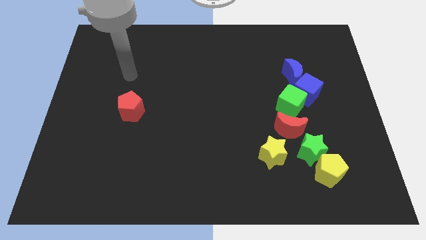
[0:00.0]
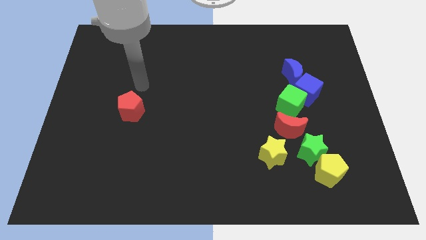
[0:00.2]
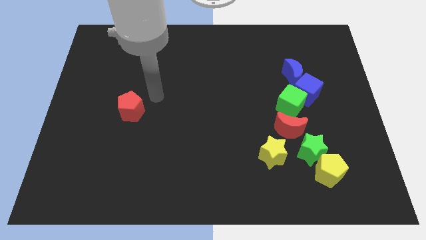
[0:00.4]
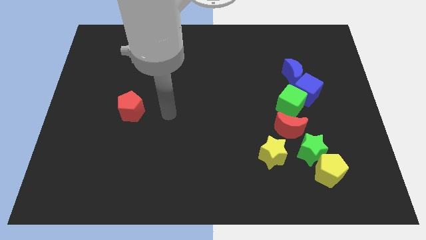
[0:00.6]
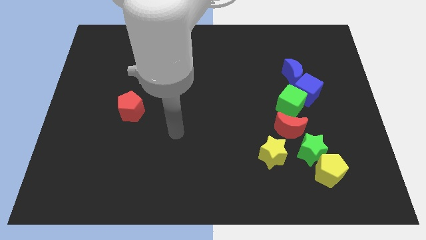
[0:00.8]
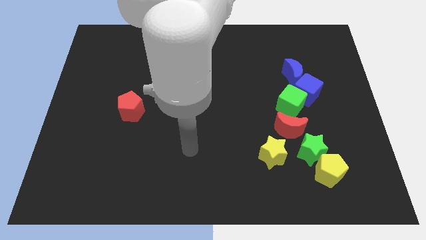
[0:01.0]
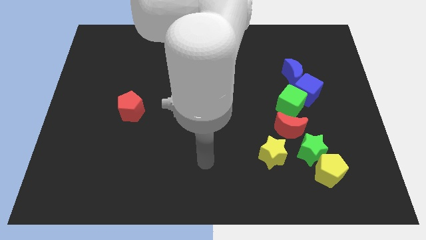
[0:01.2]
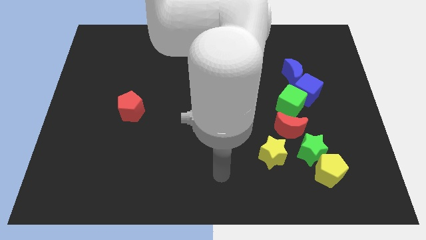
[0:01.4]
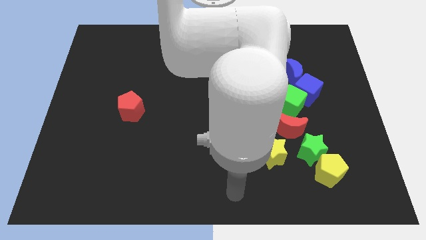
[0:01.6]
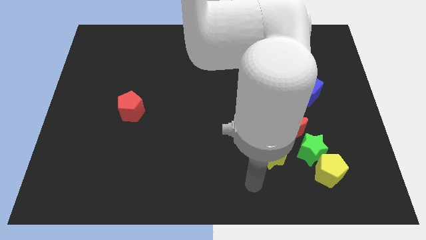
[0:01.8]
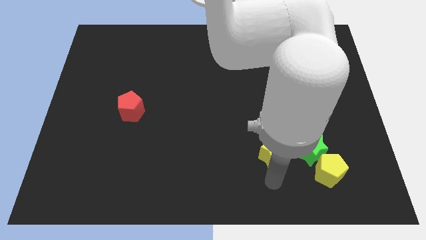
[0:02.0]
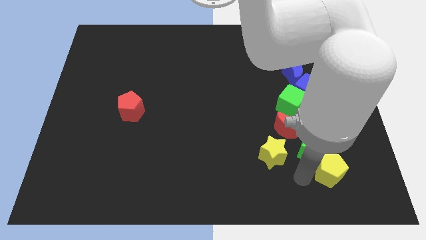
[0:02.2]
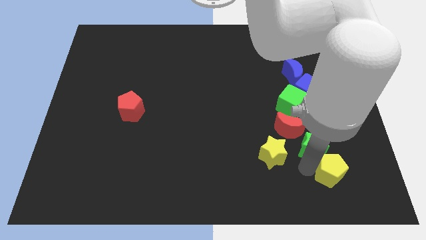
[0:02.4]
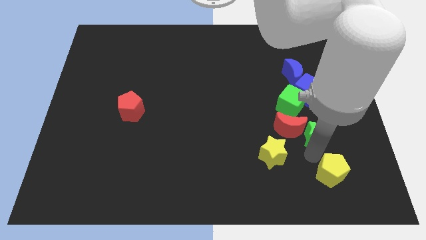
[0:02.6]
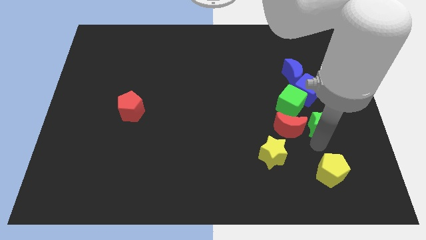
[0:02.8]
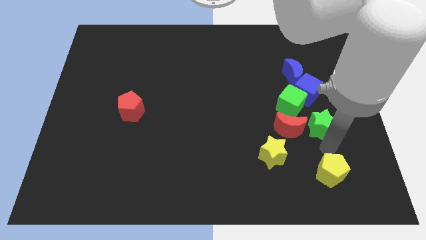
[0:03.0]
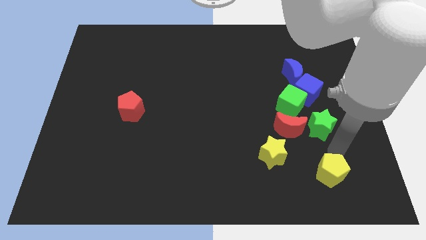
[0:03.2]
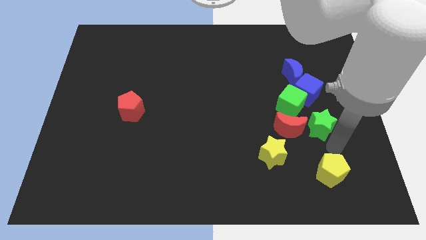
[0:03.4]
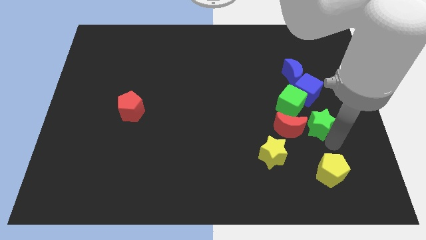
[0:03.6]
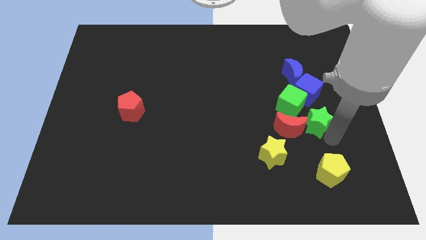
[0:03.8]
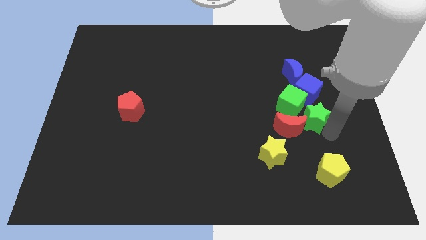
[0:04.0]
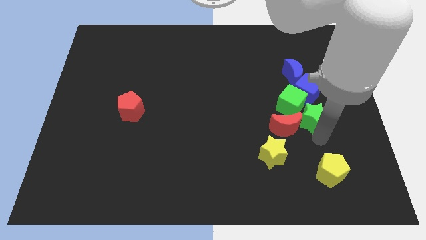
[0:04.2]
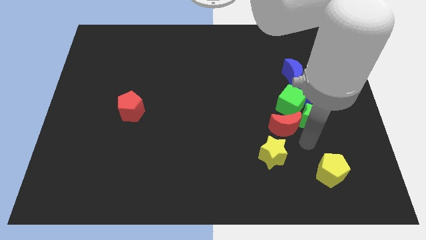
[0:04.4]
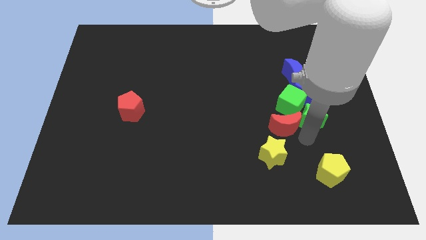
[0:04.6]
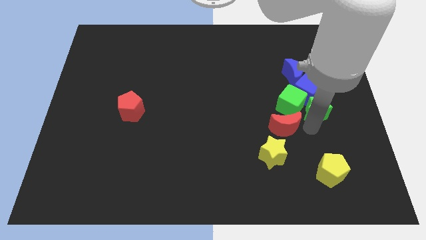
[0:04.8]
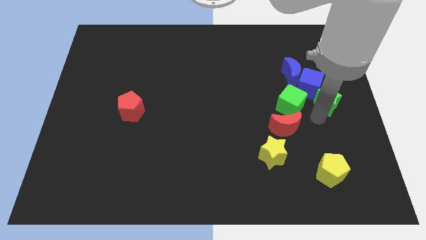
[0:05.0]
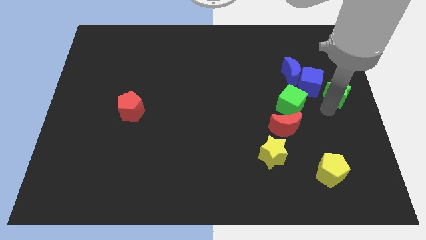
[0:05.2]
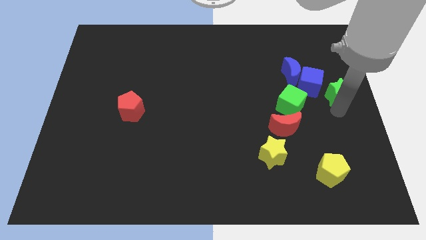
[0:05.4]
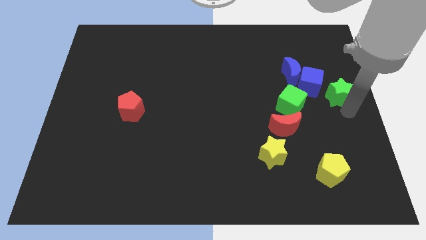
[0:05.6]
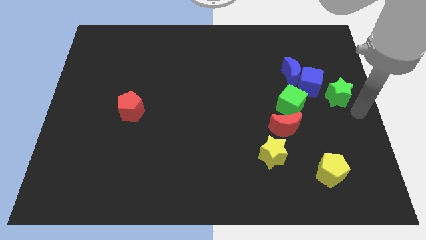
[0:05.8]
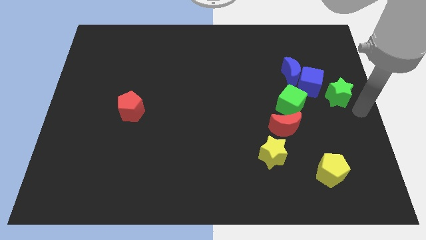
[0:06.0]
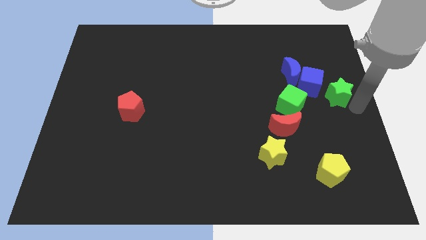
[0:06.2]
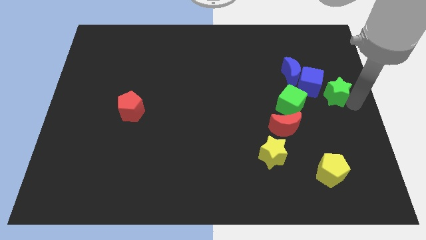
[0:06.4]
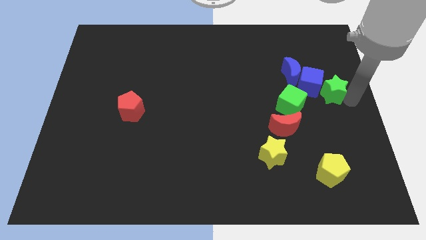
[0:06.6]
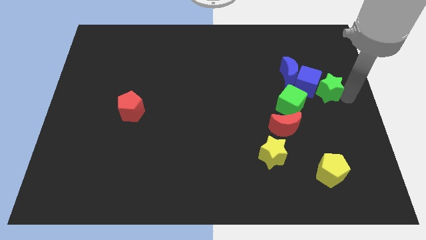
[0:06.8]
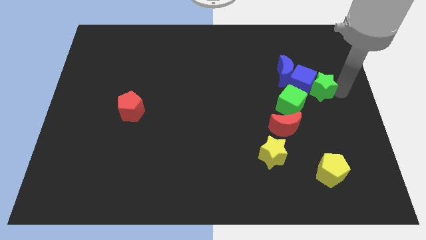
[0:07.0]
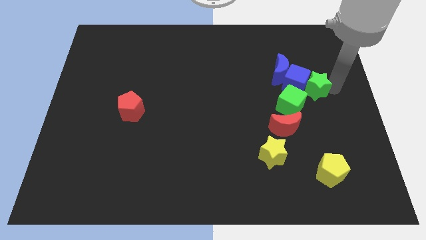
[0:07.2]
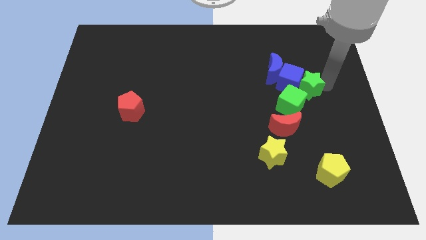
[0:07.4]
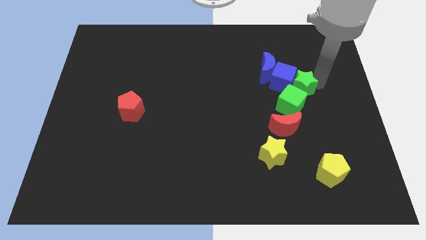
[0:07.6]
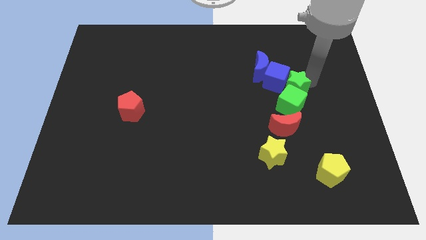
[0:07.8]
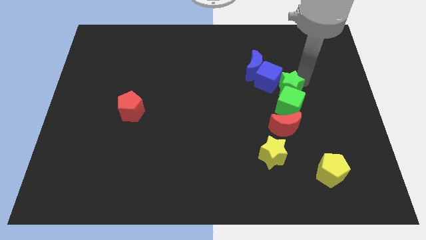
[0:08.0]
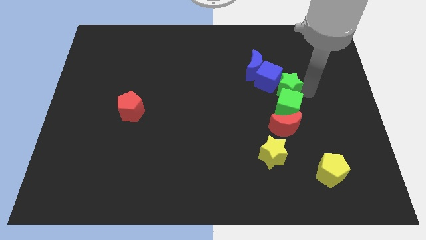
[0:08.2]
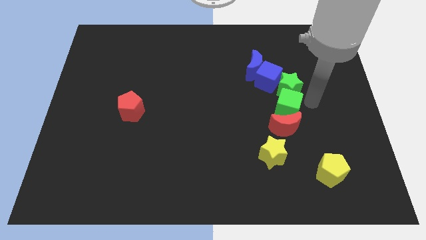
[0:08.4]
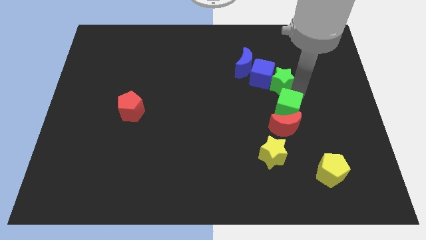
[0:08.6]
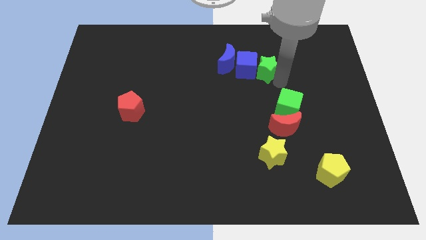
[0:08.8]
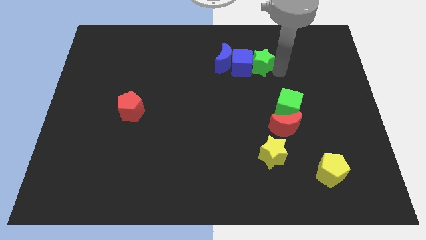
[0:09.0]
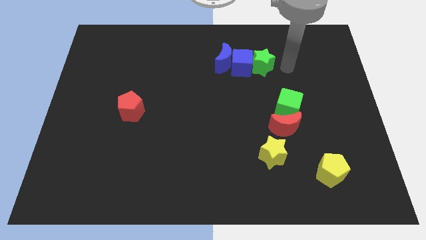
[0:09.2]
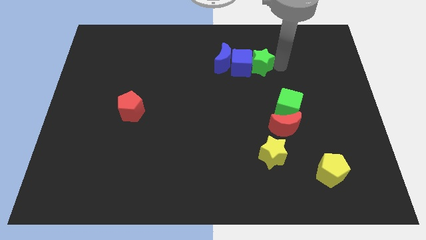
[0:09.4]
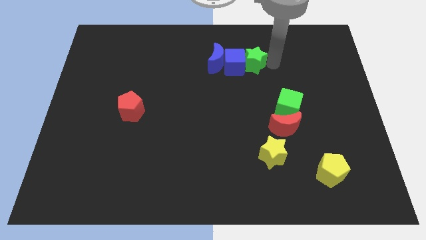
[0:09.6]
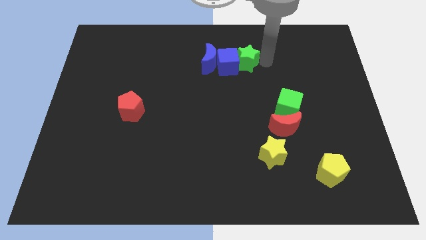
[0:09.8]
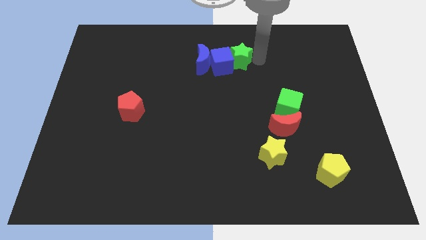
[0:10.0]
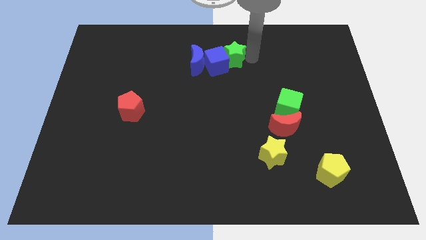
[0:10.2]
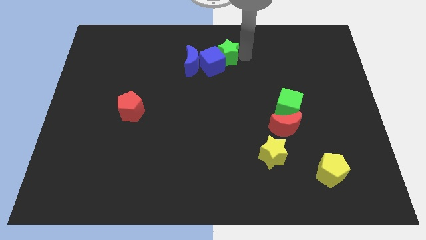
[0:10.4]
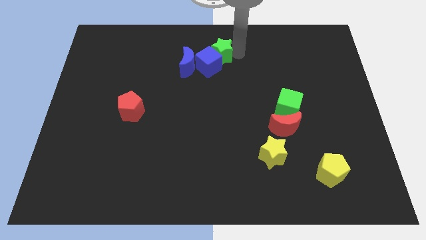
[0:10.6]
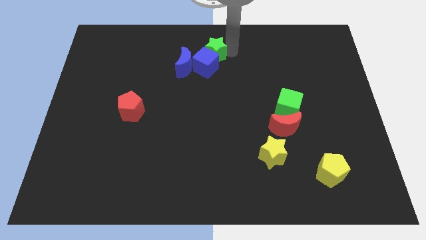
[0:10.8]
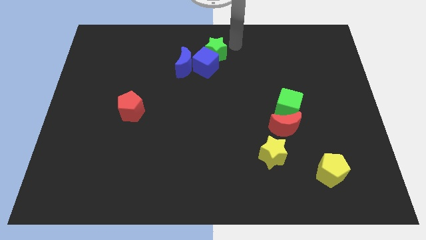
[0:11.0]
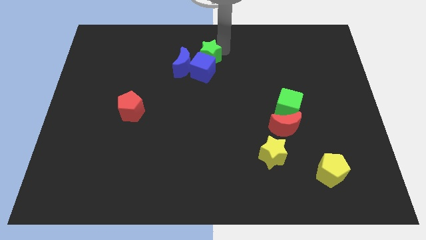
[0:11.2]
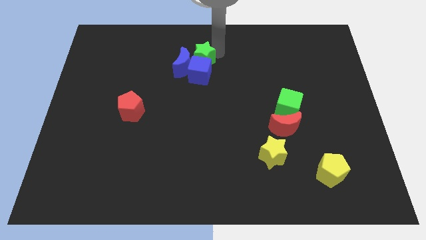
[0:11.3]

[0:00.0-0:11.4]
put the green star next to the blue moon

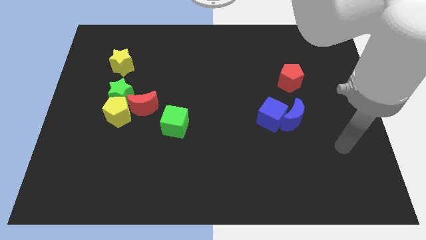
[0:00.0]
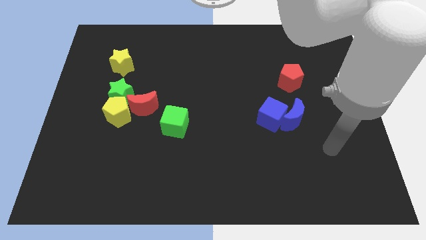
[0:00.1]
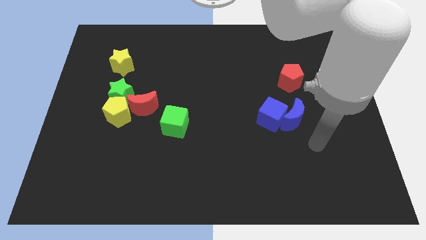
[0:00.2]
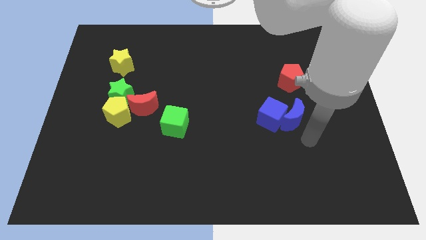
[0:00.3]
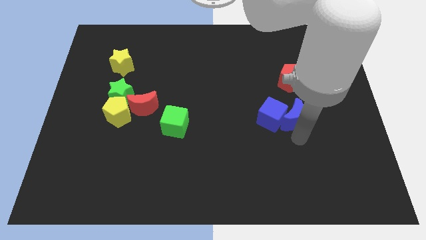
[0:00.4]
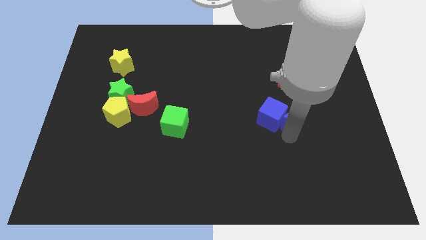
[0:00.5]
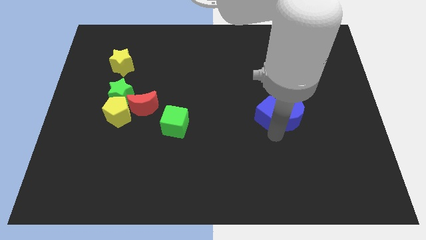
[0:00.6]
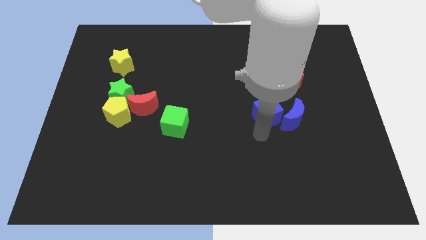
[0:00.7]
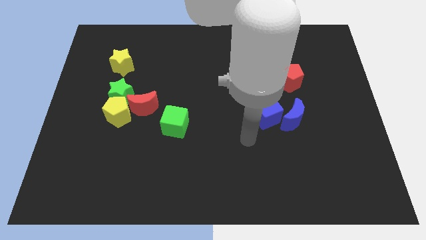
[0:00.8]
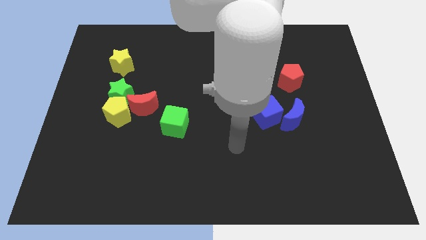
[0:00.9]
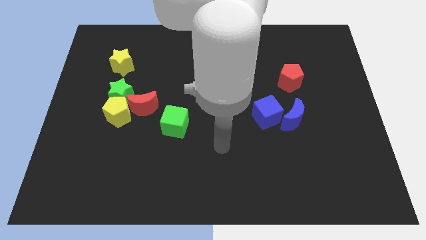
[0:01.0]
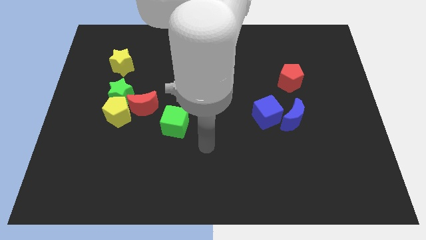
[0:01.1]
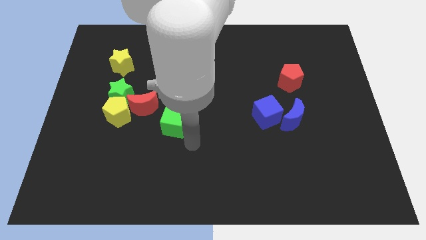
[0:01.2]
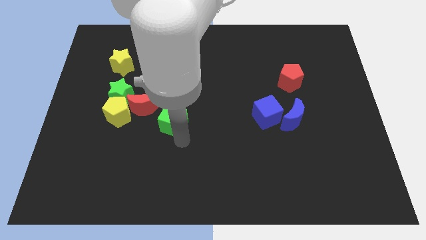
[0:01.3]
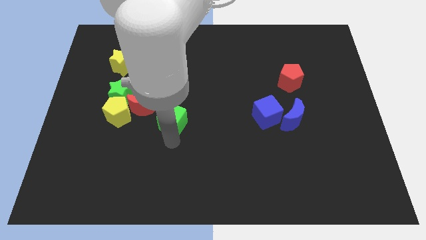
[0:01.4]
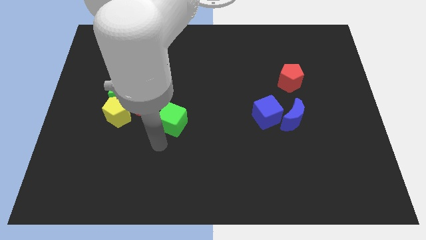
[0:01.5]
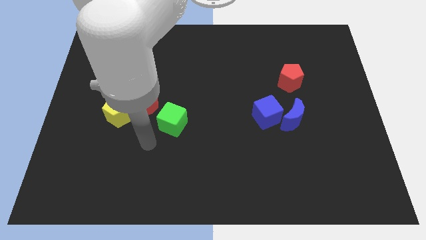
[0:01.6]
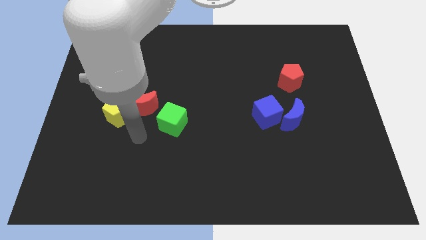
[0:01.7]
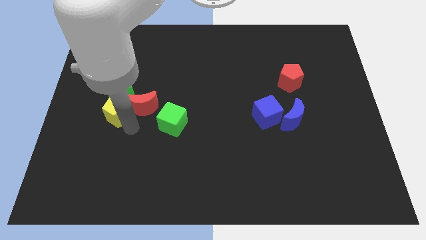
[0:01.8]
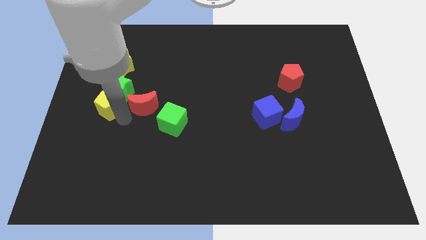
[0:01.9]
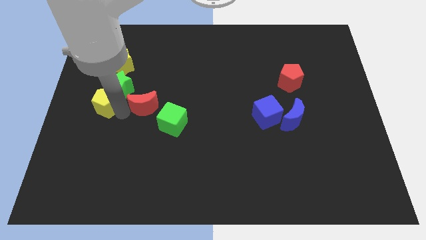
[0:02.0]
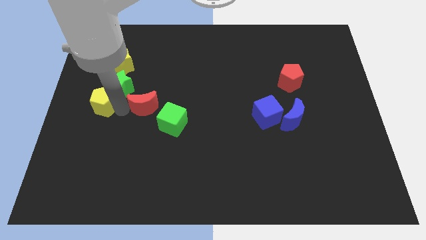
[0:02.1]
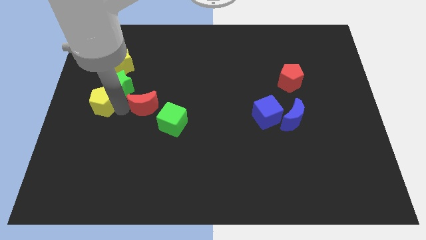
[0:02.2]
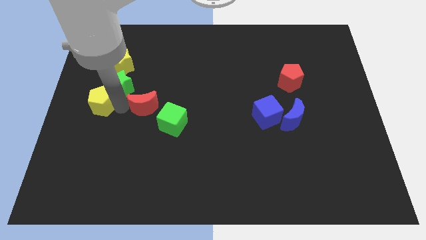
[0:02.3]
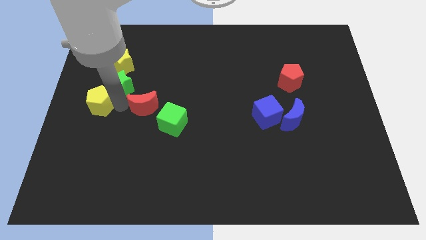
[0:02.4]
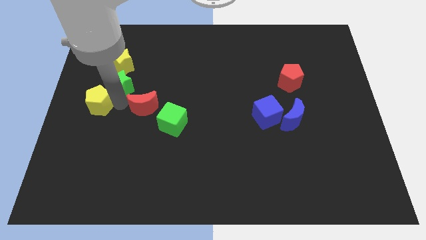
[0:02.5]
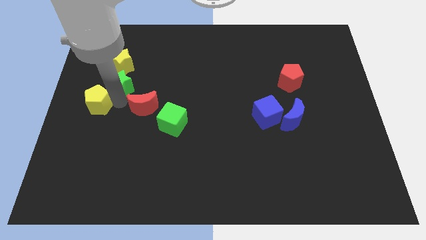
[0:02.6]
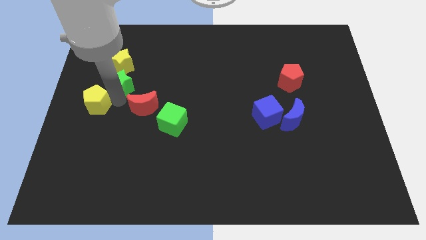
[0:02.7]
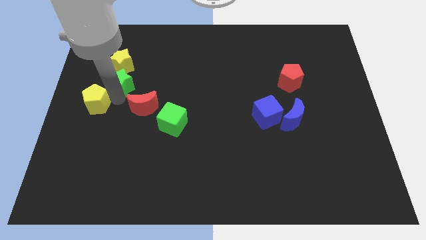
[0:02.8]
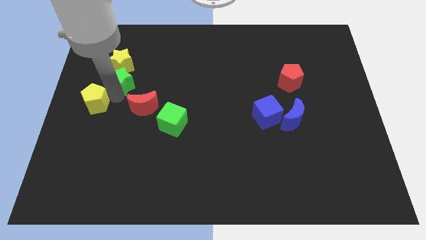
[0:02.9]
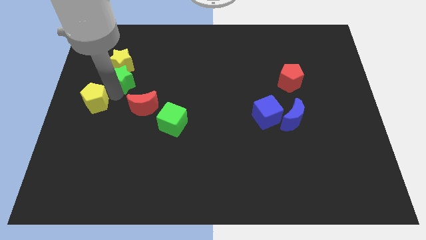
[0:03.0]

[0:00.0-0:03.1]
slide the green star to the yellow star

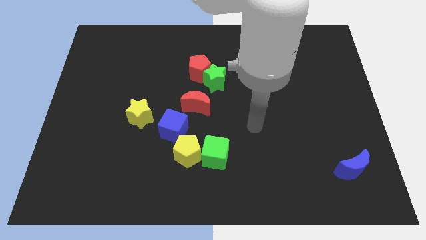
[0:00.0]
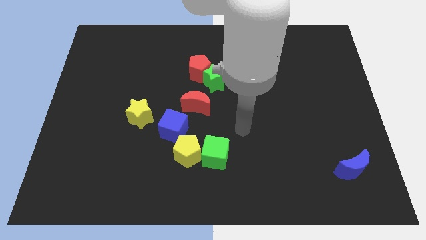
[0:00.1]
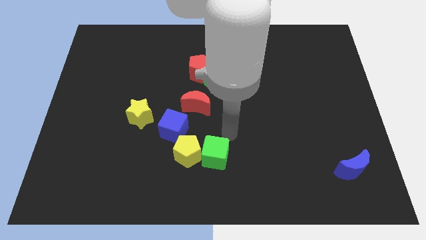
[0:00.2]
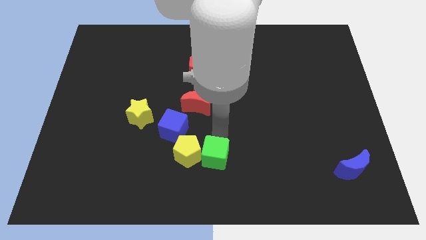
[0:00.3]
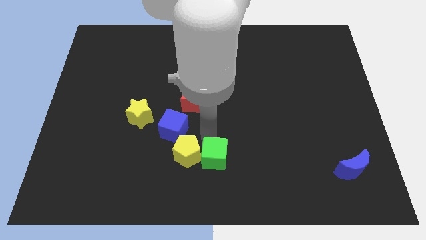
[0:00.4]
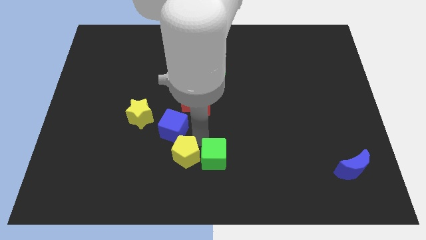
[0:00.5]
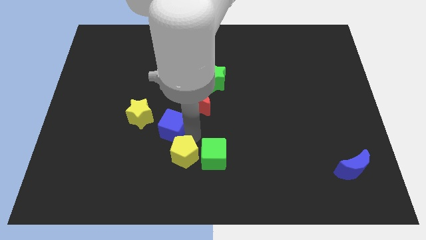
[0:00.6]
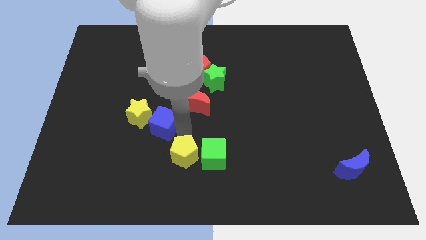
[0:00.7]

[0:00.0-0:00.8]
slide the blue cube next to the yellow star
